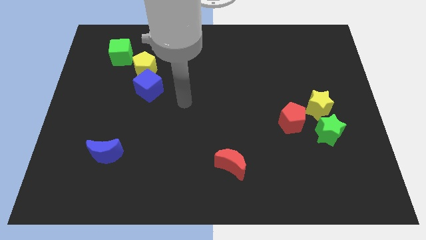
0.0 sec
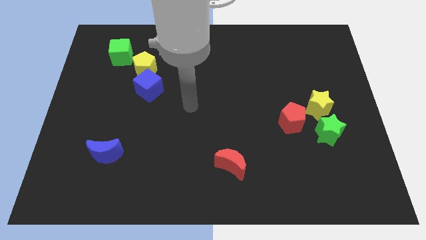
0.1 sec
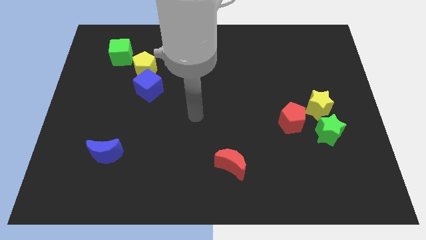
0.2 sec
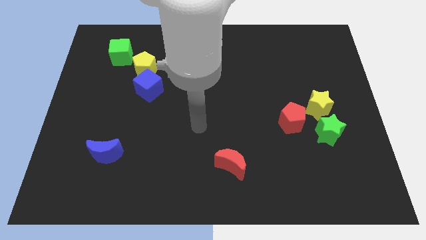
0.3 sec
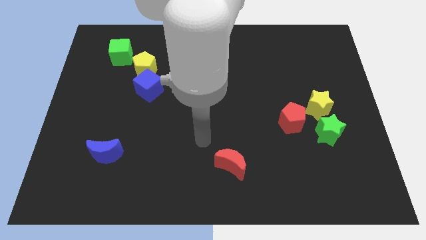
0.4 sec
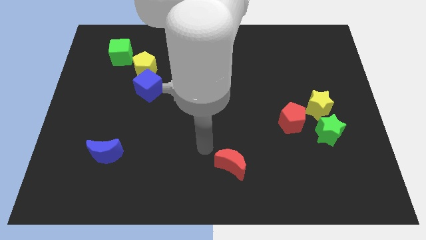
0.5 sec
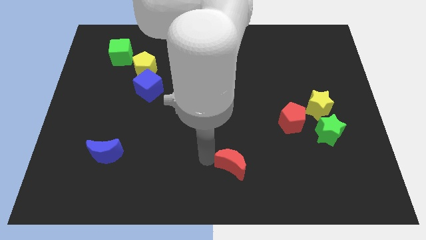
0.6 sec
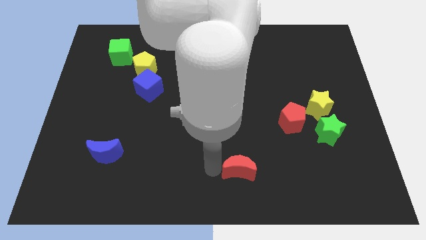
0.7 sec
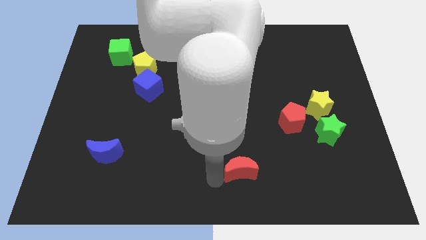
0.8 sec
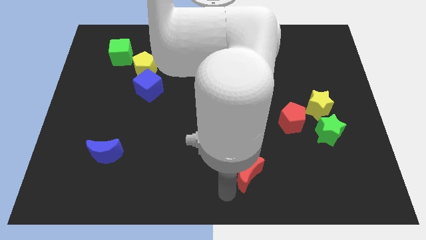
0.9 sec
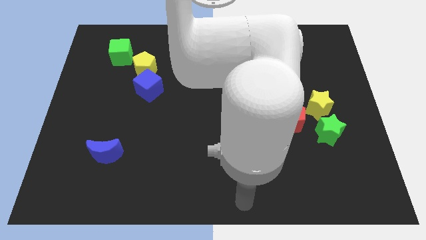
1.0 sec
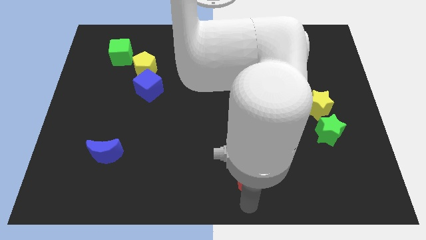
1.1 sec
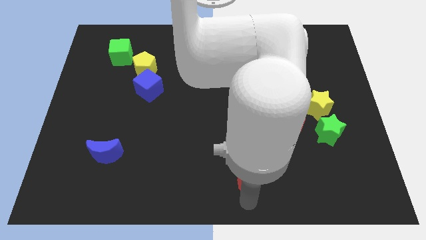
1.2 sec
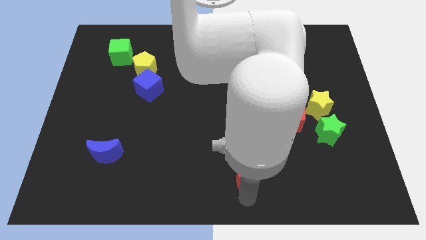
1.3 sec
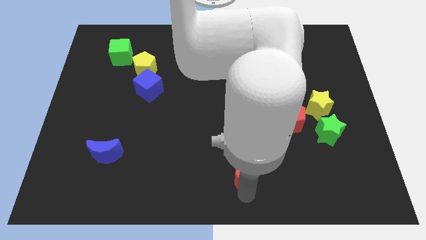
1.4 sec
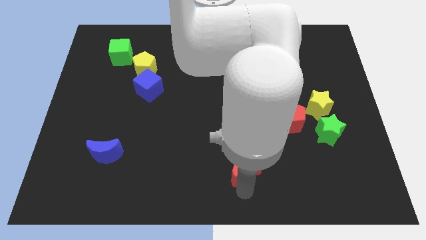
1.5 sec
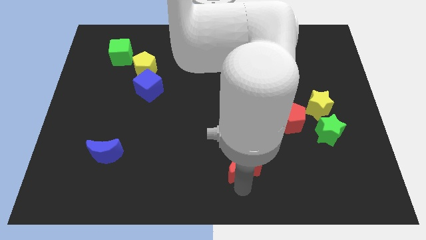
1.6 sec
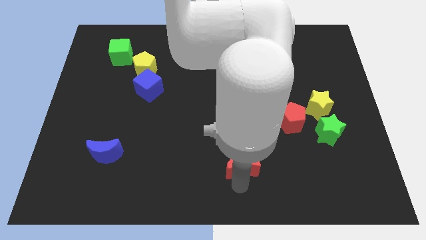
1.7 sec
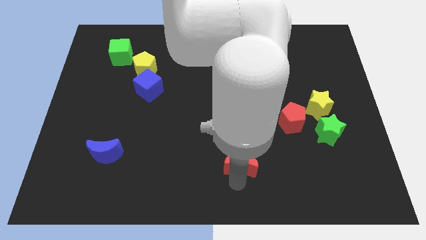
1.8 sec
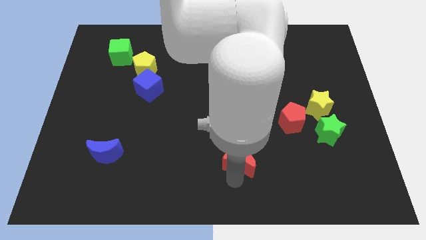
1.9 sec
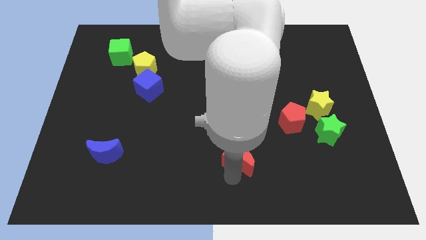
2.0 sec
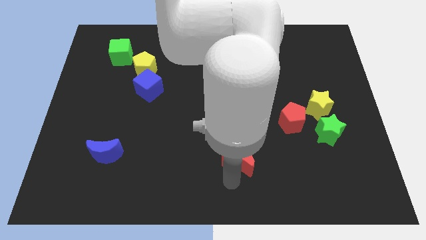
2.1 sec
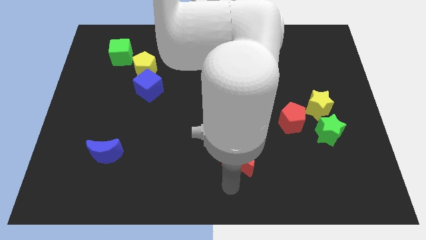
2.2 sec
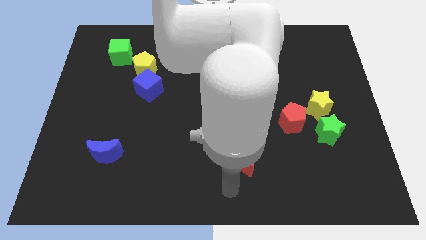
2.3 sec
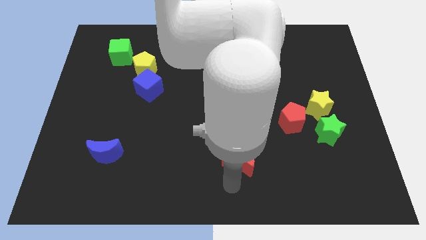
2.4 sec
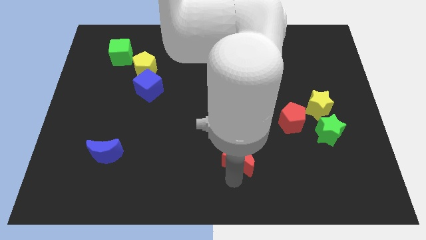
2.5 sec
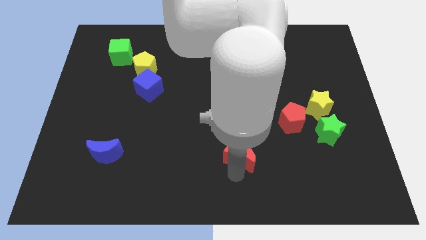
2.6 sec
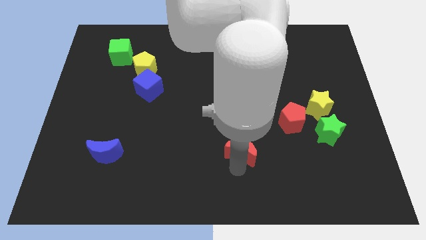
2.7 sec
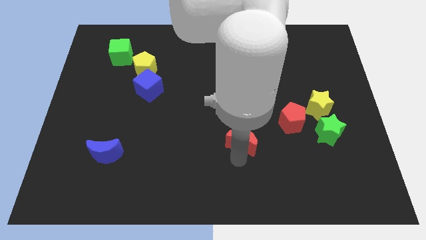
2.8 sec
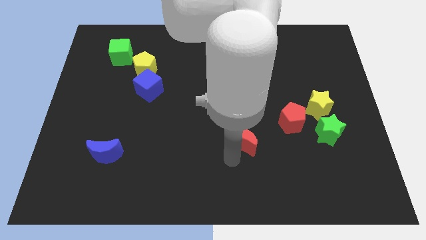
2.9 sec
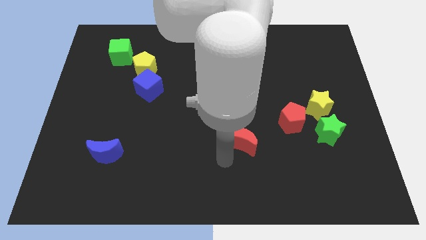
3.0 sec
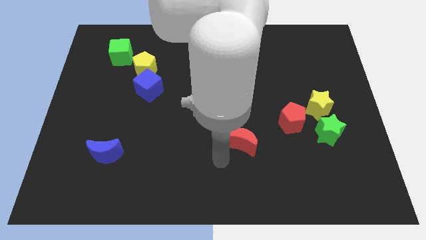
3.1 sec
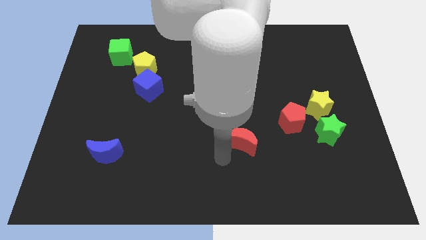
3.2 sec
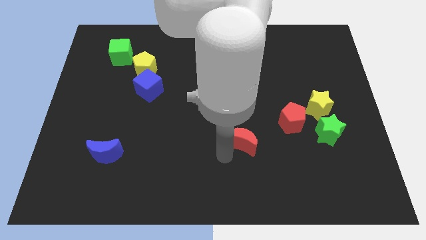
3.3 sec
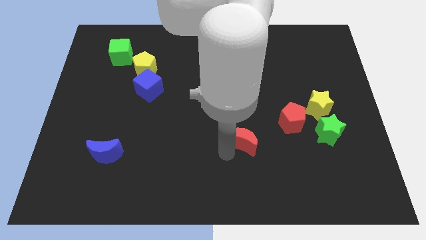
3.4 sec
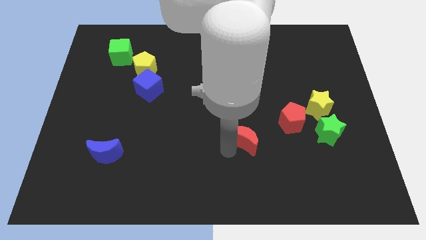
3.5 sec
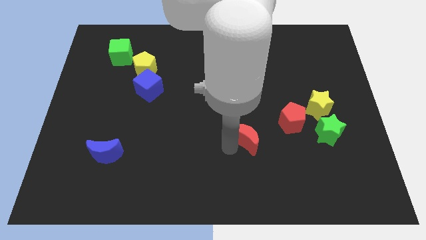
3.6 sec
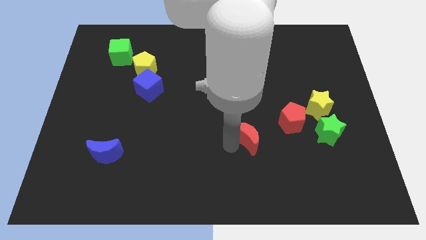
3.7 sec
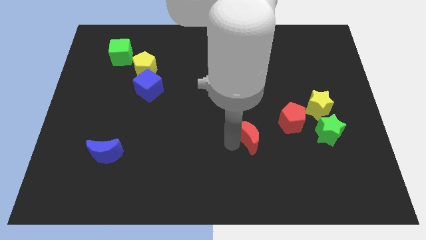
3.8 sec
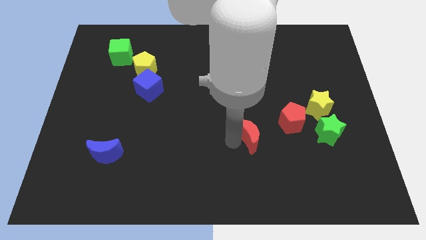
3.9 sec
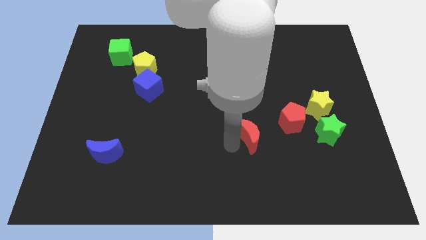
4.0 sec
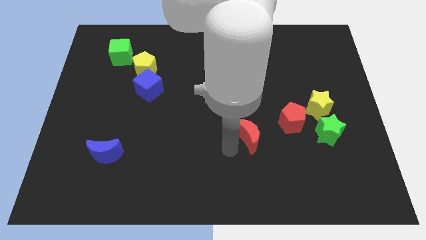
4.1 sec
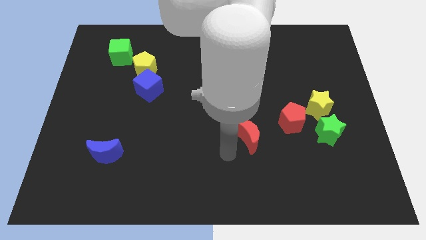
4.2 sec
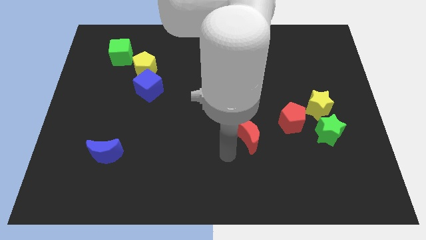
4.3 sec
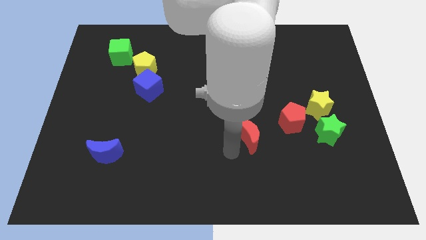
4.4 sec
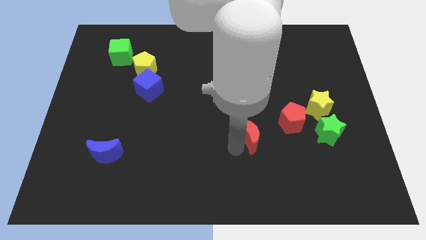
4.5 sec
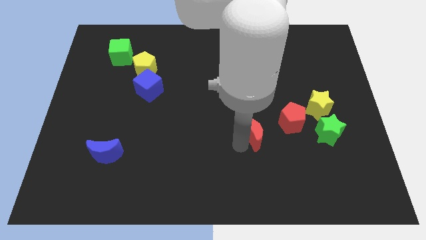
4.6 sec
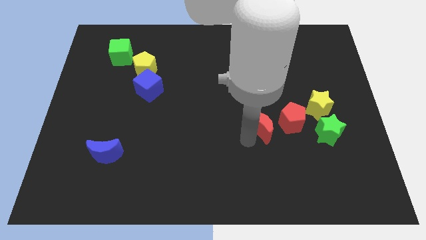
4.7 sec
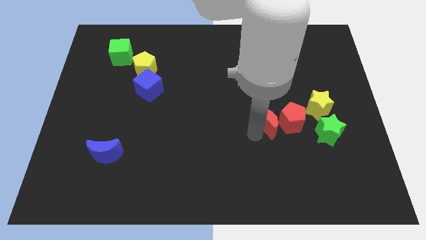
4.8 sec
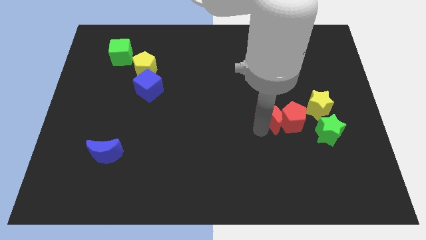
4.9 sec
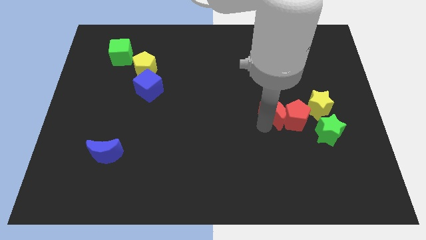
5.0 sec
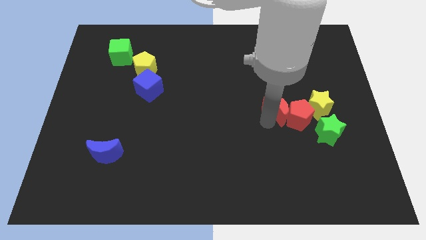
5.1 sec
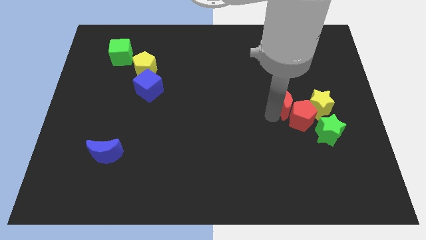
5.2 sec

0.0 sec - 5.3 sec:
move the red moon diagonally up and right

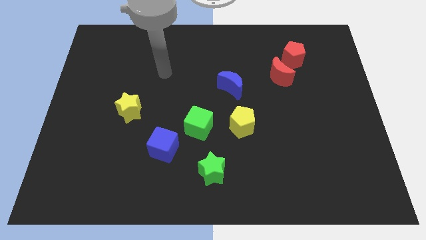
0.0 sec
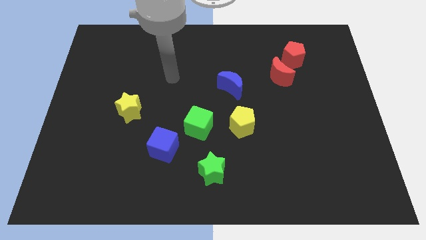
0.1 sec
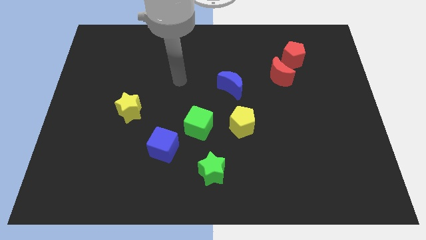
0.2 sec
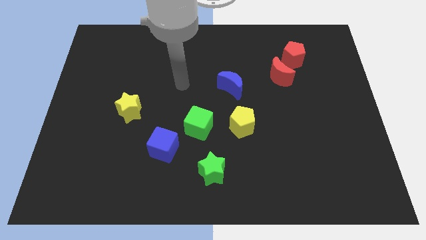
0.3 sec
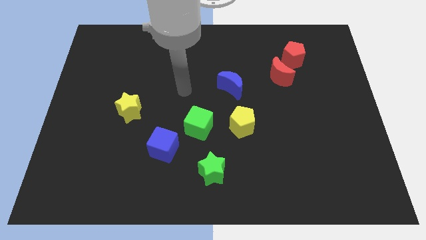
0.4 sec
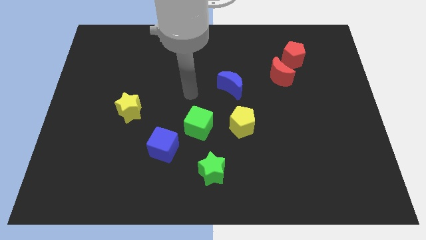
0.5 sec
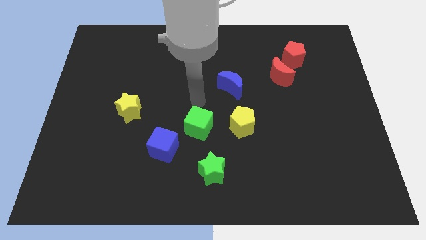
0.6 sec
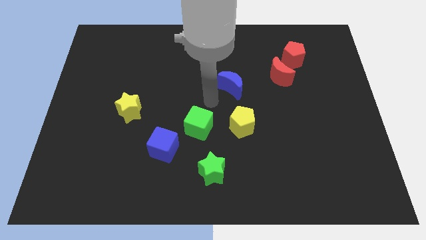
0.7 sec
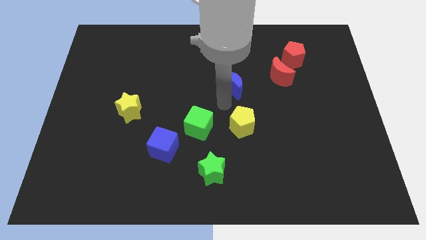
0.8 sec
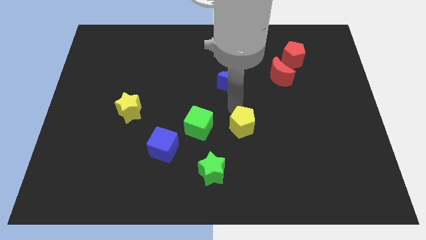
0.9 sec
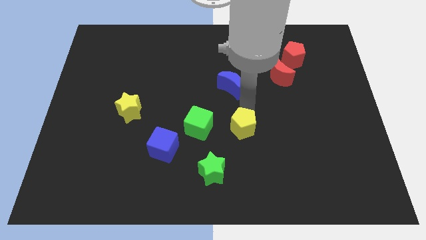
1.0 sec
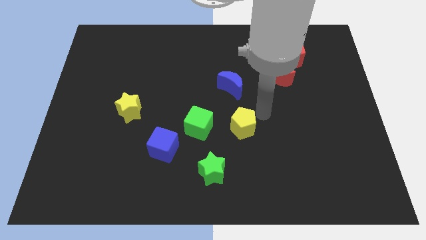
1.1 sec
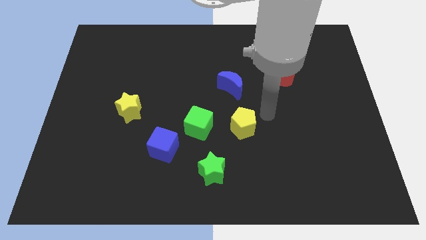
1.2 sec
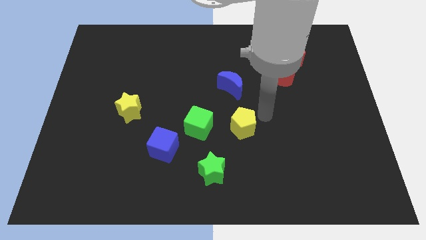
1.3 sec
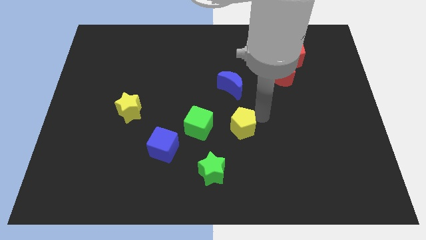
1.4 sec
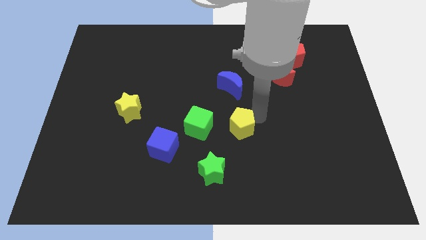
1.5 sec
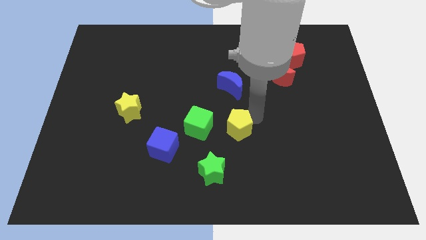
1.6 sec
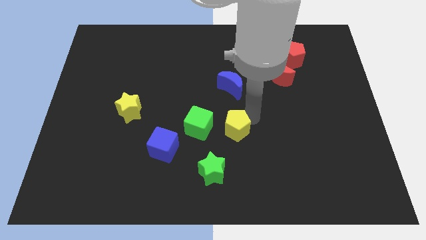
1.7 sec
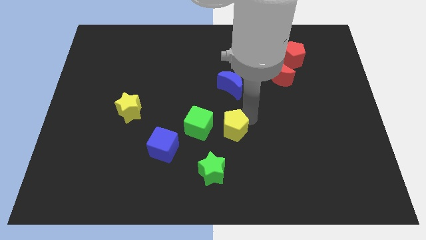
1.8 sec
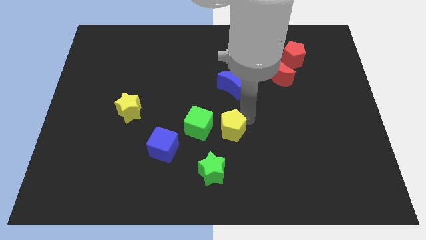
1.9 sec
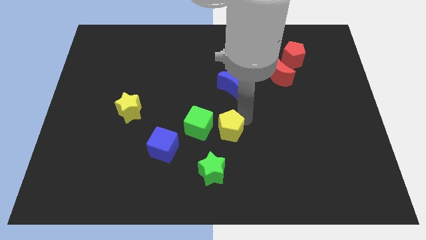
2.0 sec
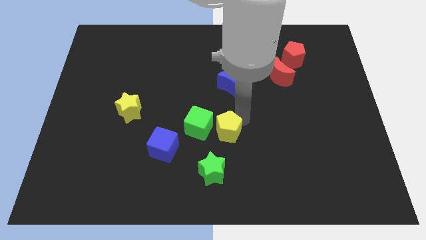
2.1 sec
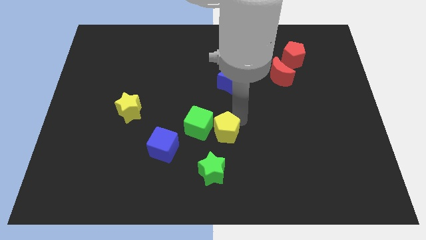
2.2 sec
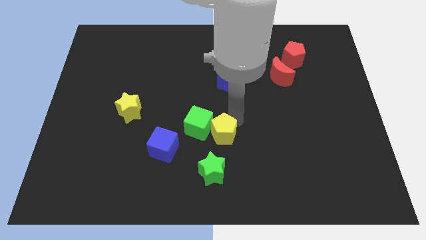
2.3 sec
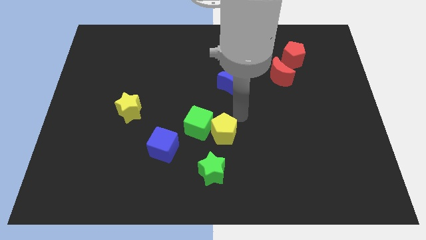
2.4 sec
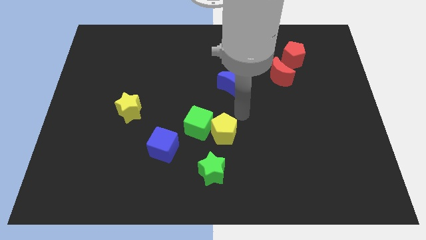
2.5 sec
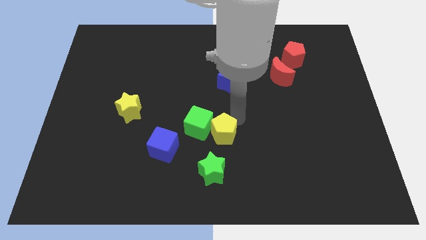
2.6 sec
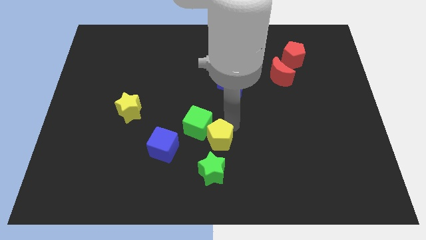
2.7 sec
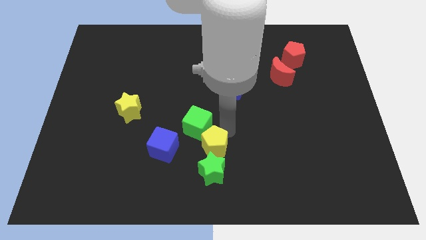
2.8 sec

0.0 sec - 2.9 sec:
move the yellow pentagon slightly downwards and to the left diagonally
